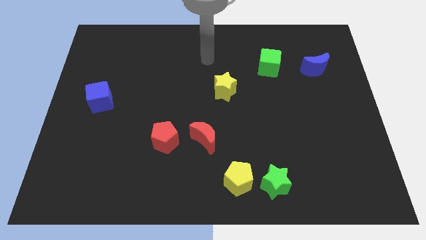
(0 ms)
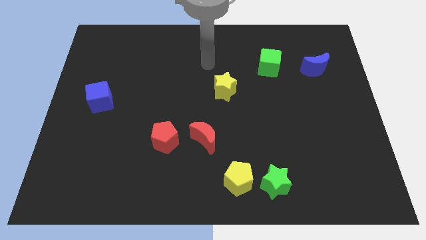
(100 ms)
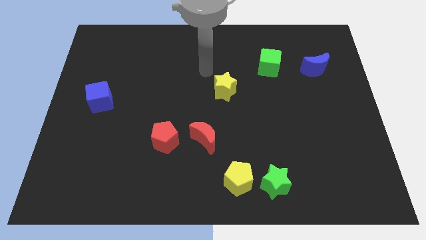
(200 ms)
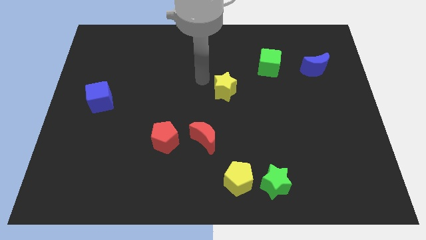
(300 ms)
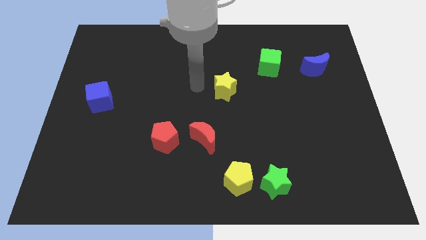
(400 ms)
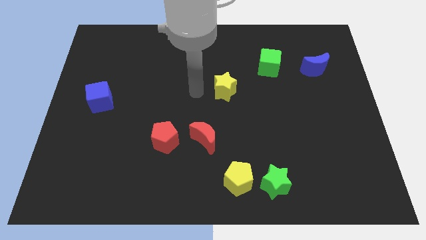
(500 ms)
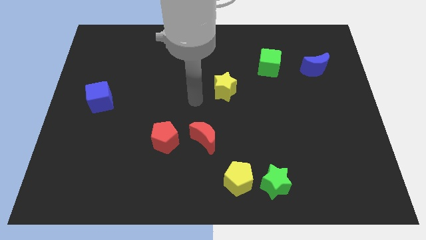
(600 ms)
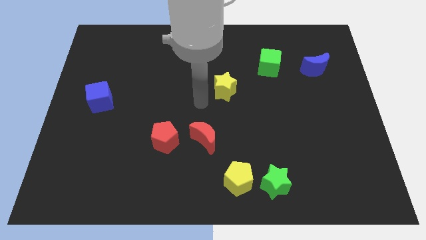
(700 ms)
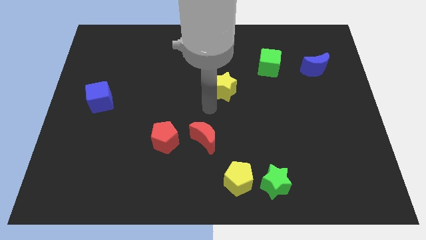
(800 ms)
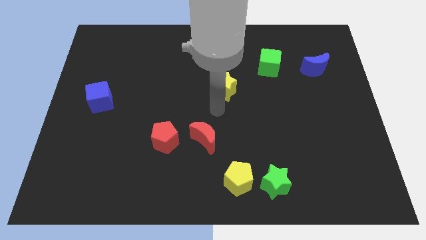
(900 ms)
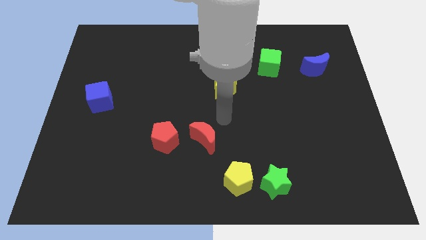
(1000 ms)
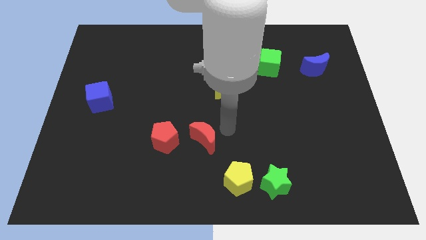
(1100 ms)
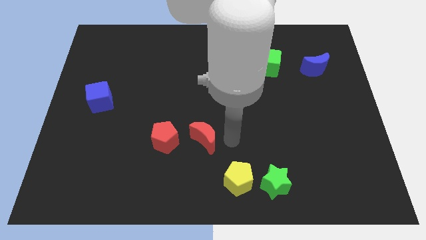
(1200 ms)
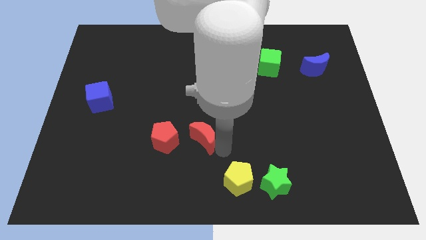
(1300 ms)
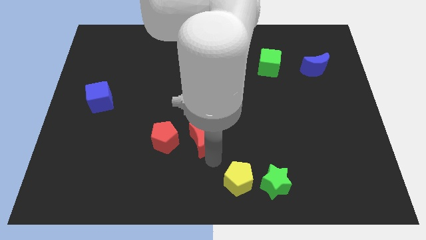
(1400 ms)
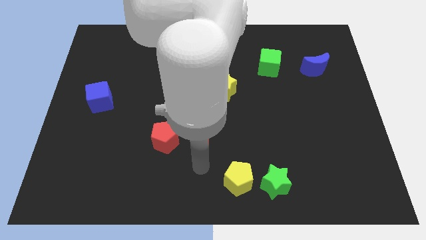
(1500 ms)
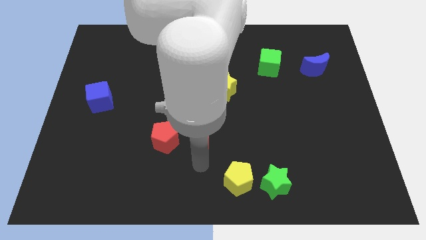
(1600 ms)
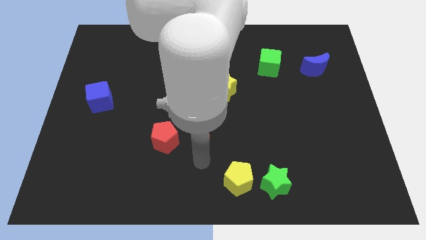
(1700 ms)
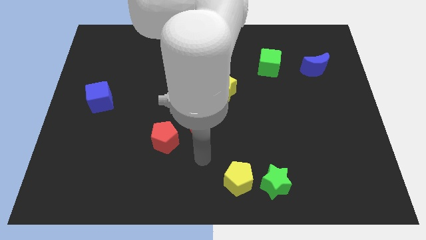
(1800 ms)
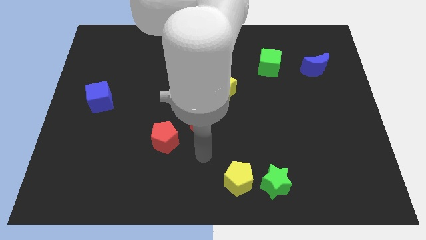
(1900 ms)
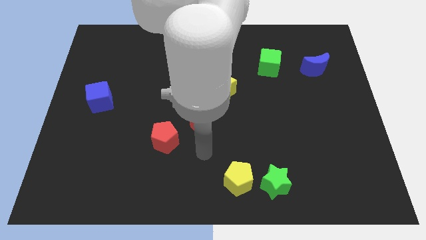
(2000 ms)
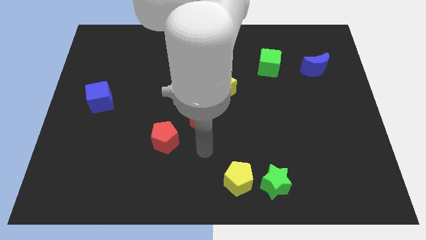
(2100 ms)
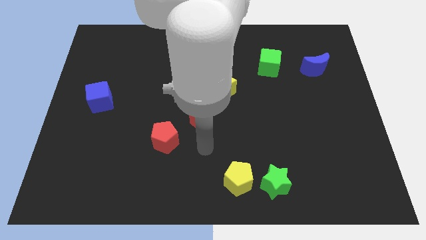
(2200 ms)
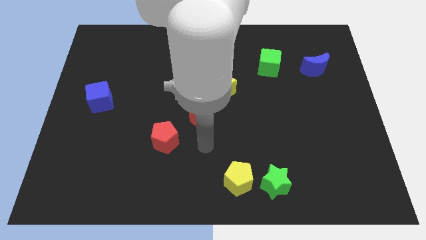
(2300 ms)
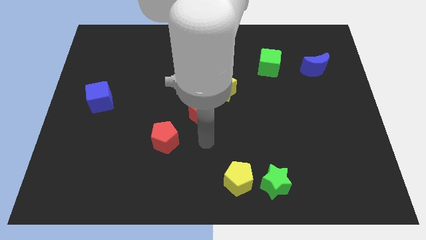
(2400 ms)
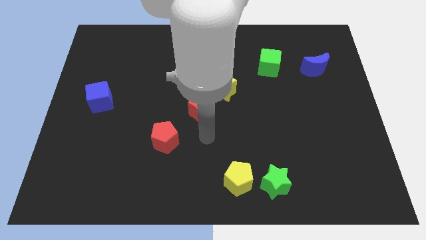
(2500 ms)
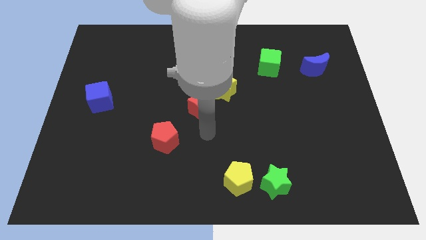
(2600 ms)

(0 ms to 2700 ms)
slide the red moon upwards a little

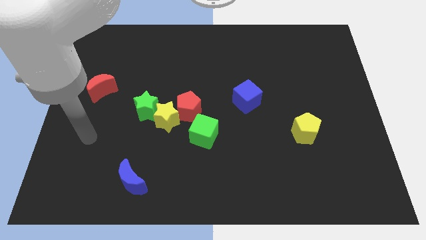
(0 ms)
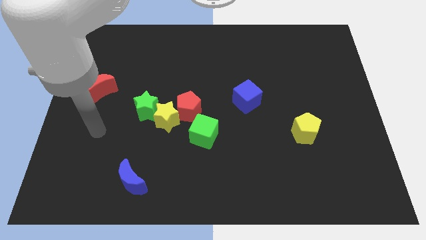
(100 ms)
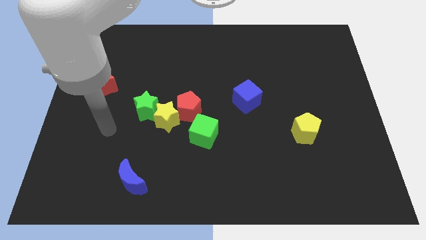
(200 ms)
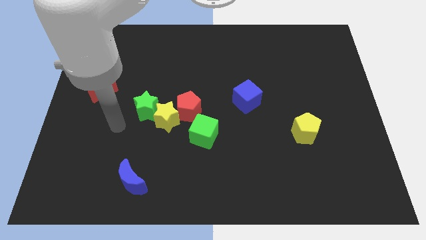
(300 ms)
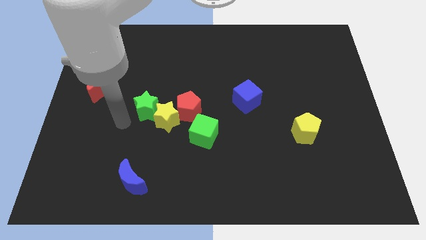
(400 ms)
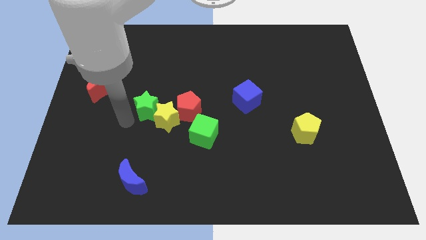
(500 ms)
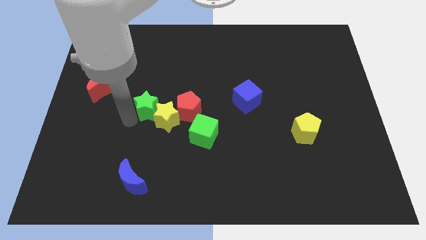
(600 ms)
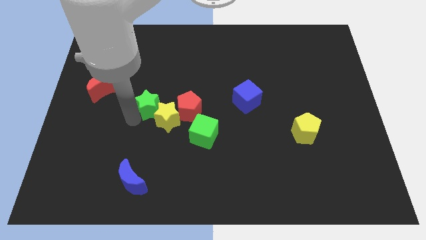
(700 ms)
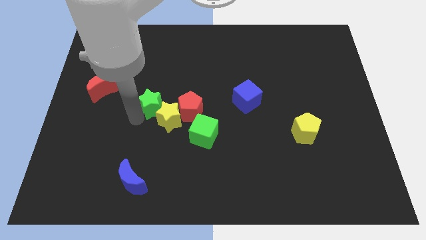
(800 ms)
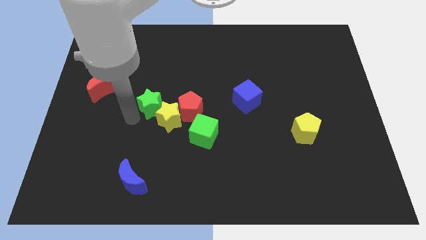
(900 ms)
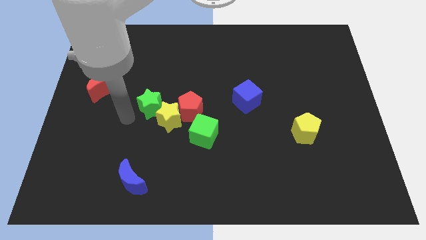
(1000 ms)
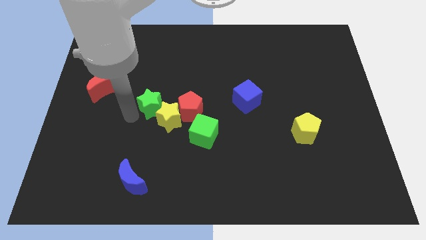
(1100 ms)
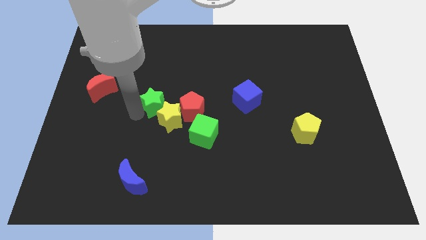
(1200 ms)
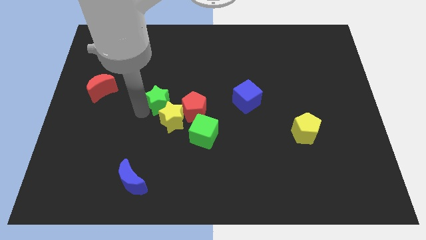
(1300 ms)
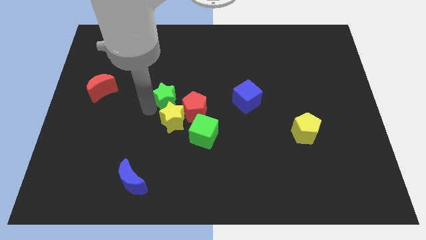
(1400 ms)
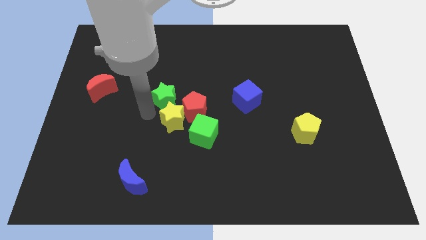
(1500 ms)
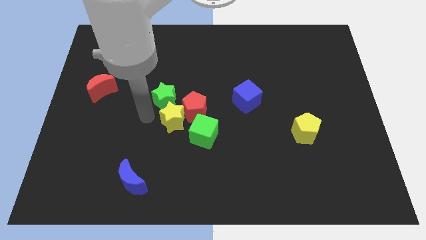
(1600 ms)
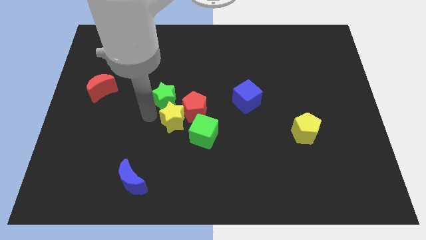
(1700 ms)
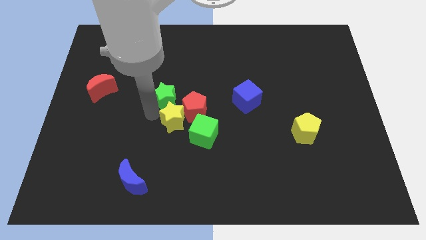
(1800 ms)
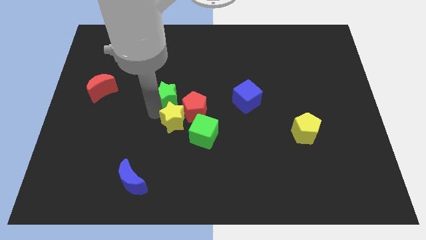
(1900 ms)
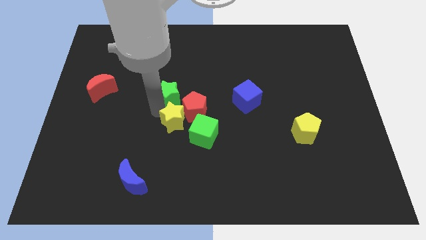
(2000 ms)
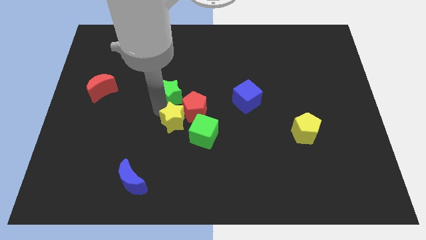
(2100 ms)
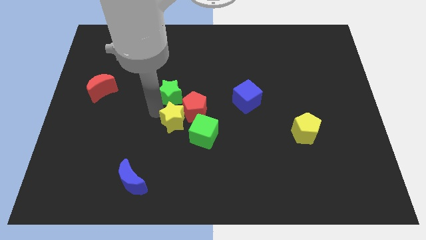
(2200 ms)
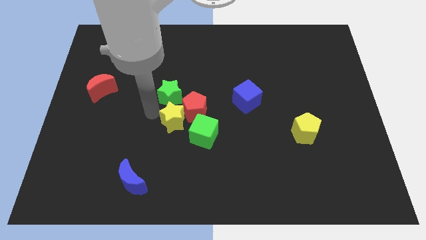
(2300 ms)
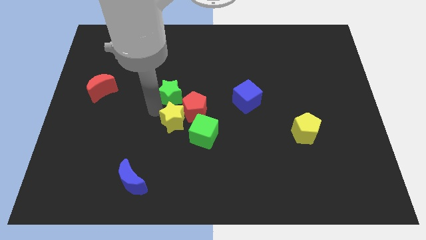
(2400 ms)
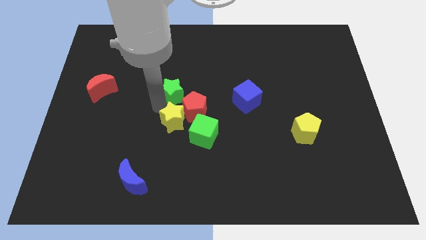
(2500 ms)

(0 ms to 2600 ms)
push the green star upwards and then right a bit

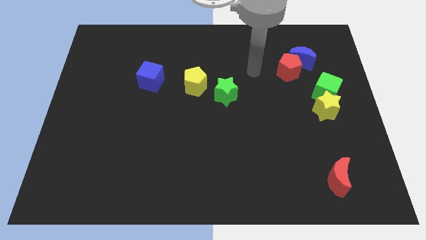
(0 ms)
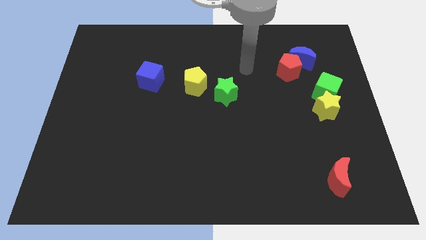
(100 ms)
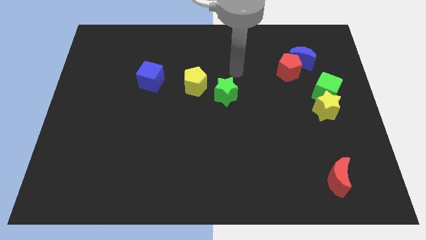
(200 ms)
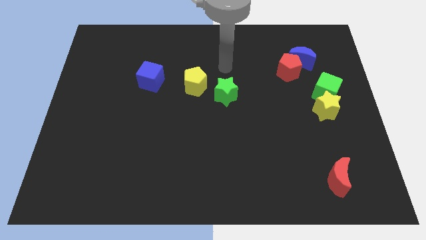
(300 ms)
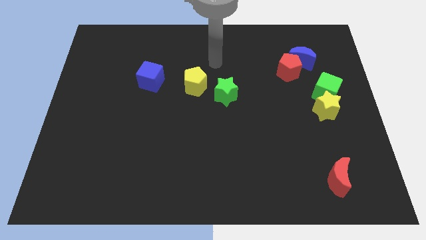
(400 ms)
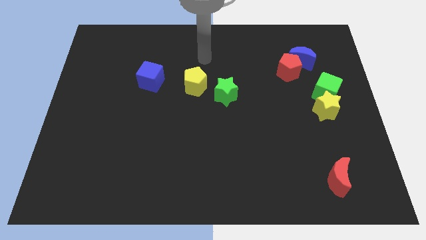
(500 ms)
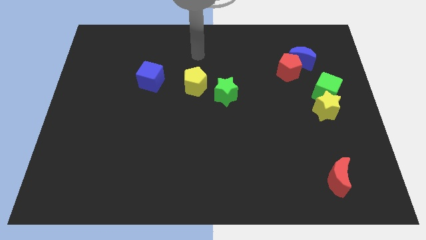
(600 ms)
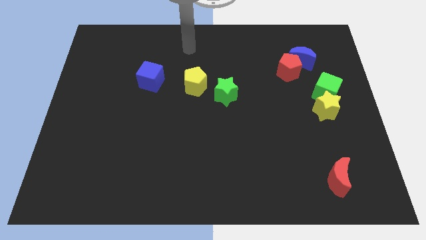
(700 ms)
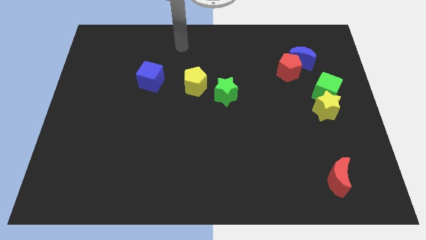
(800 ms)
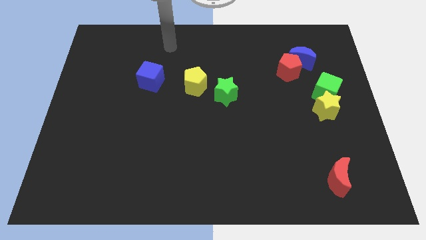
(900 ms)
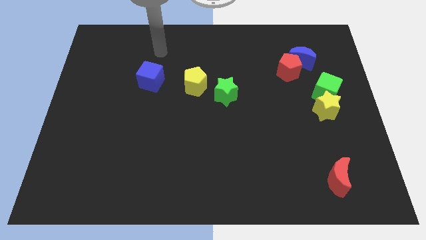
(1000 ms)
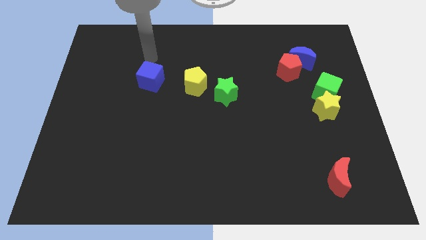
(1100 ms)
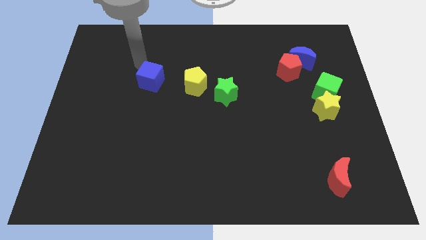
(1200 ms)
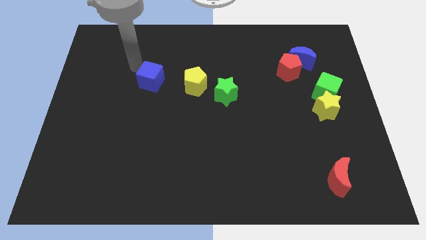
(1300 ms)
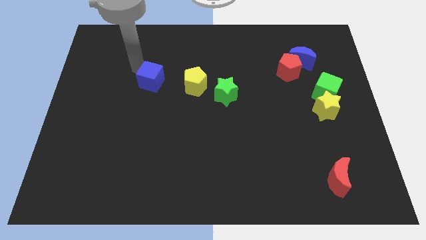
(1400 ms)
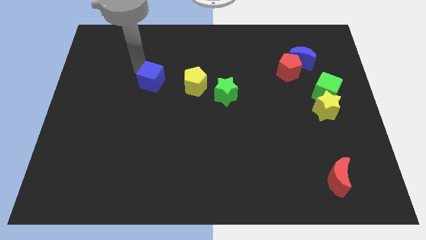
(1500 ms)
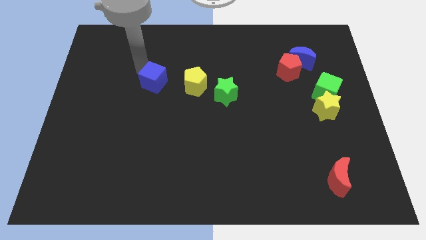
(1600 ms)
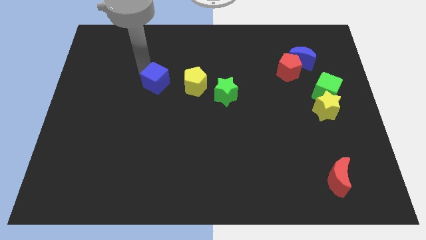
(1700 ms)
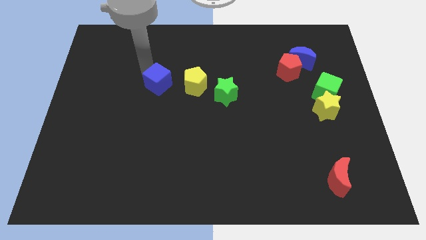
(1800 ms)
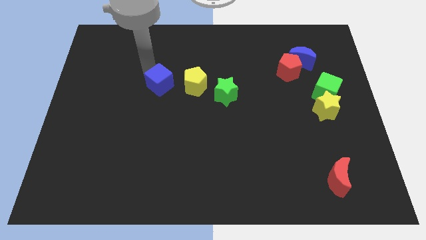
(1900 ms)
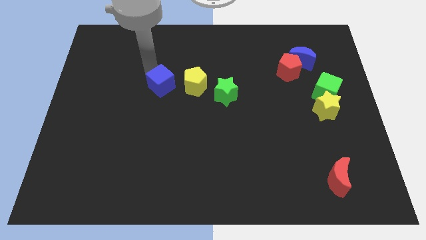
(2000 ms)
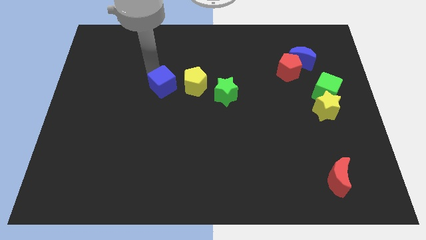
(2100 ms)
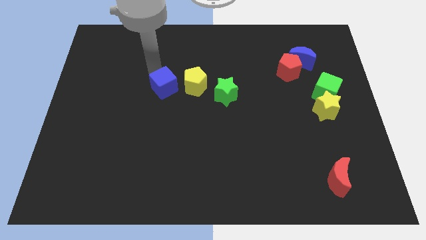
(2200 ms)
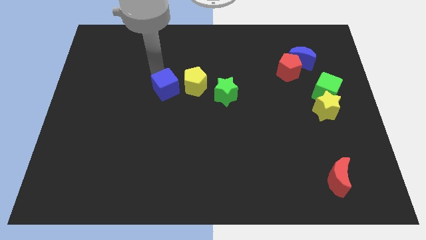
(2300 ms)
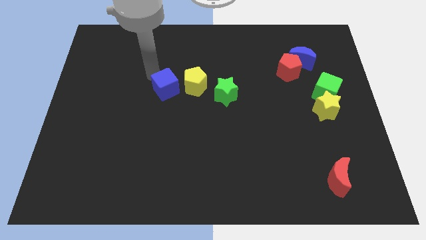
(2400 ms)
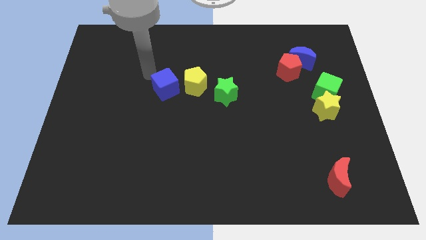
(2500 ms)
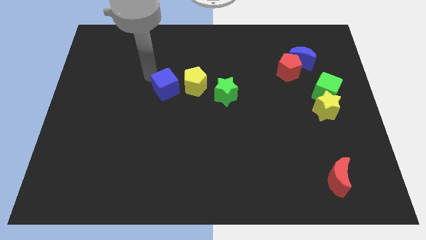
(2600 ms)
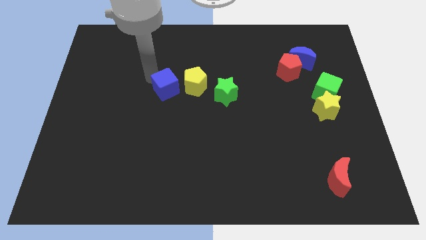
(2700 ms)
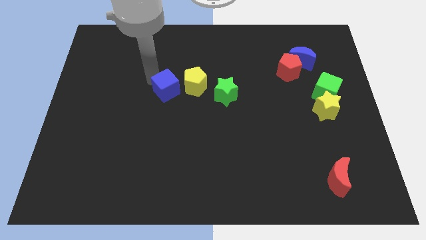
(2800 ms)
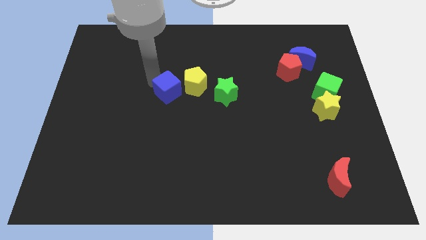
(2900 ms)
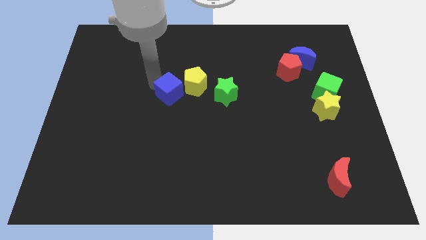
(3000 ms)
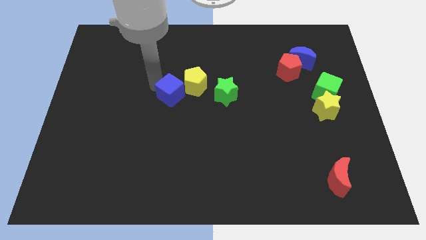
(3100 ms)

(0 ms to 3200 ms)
move the blue cube down and then to the right slightly
